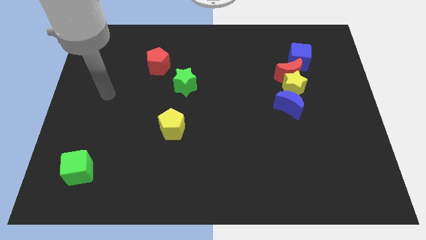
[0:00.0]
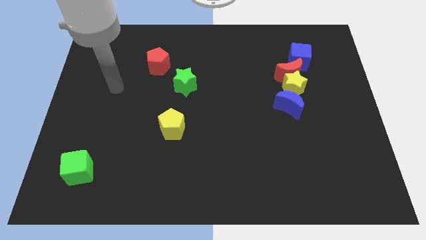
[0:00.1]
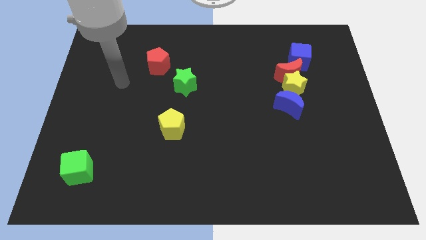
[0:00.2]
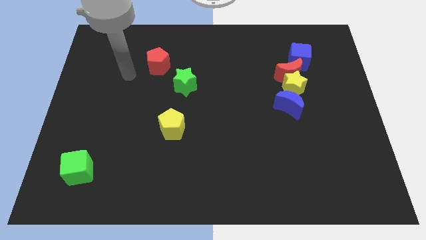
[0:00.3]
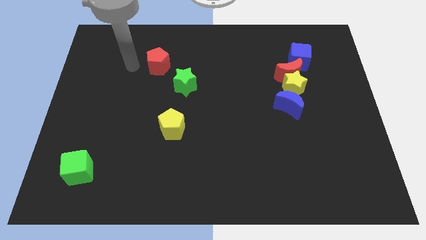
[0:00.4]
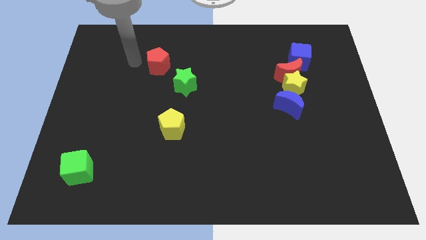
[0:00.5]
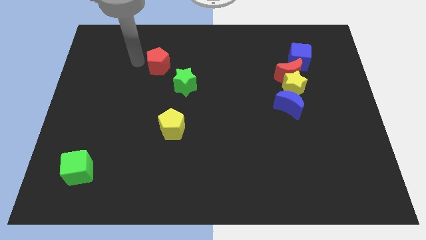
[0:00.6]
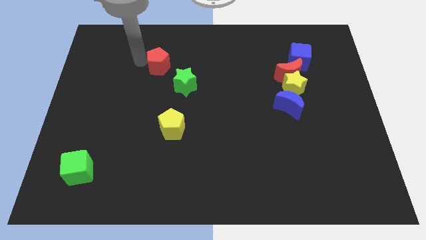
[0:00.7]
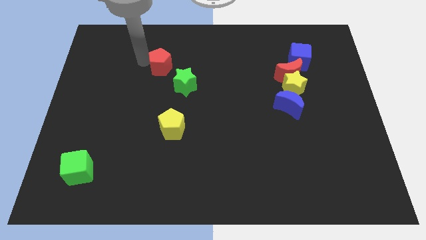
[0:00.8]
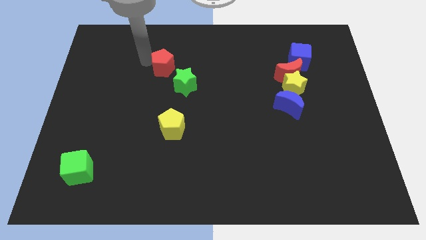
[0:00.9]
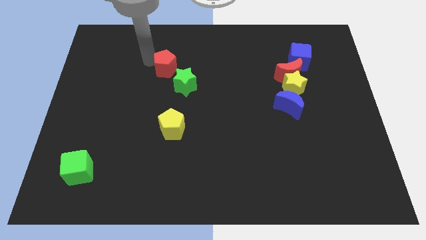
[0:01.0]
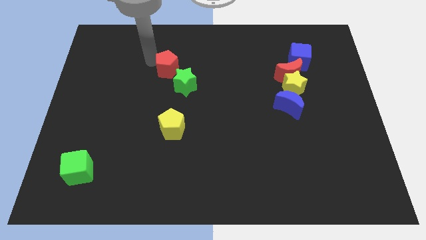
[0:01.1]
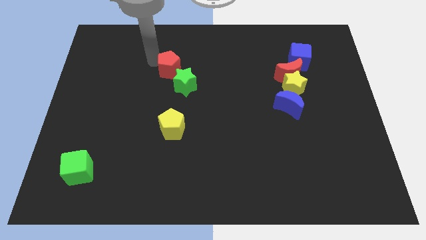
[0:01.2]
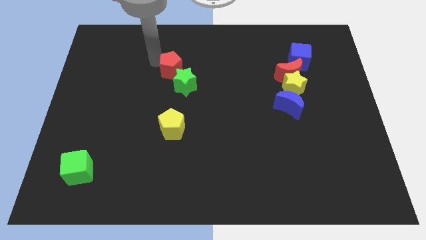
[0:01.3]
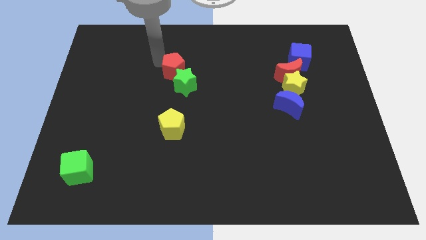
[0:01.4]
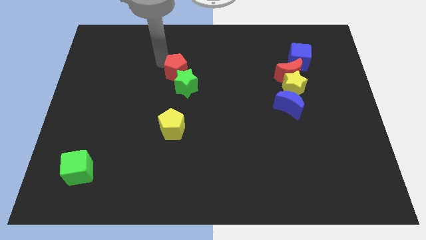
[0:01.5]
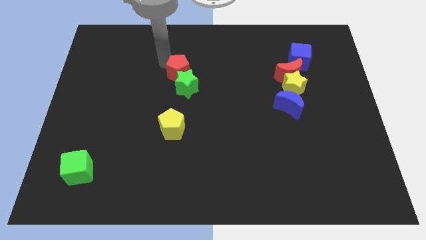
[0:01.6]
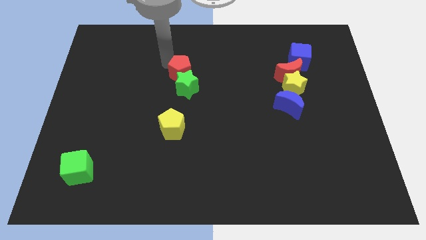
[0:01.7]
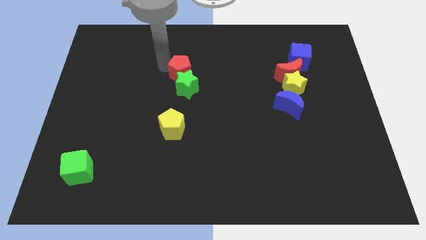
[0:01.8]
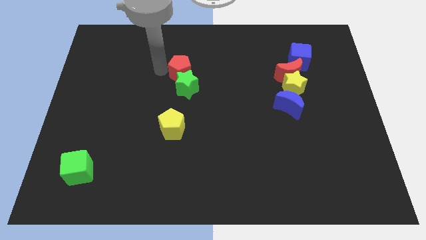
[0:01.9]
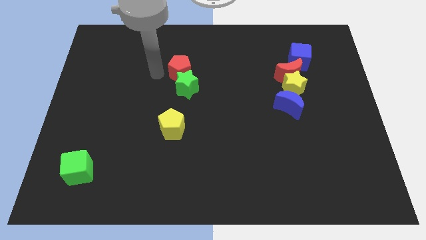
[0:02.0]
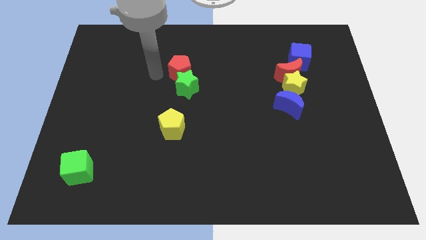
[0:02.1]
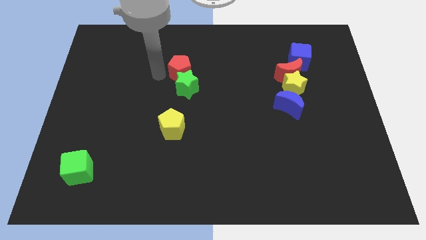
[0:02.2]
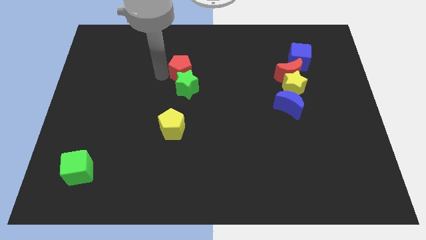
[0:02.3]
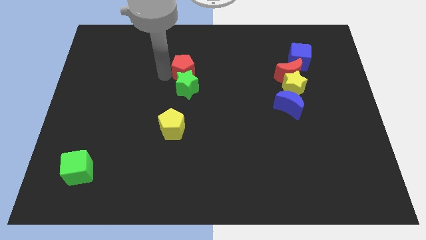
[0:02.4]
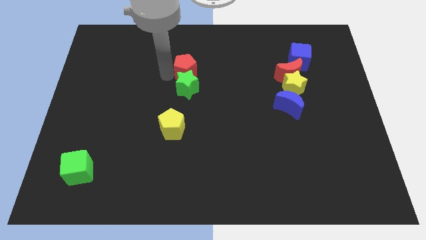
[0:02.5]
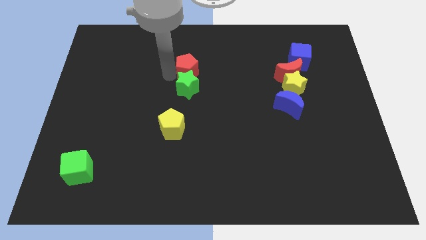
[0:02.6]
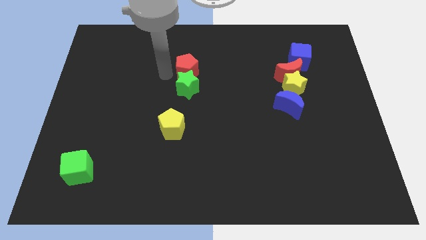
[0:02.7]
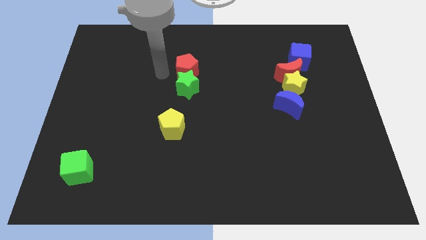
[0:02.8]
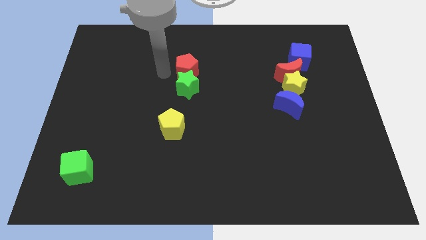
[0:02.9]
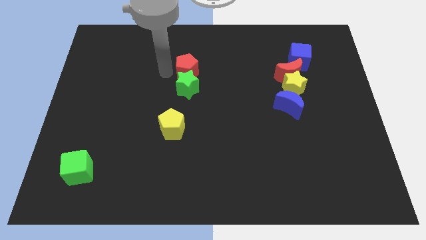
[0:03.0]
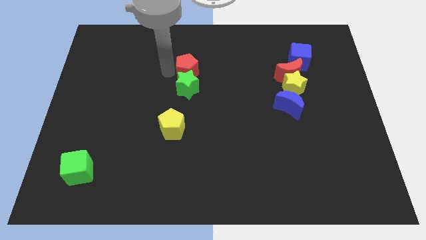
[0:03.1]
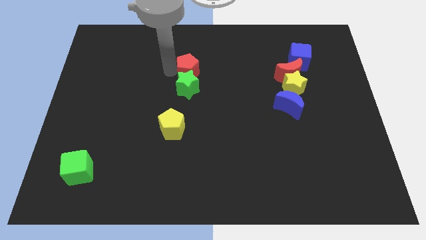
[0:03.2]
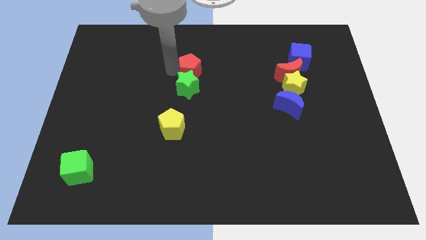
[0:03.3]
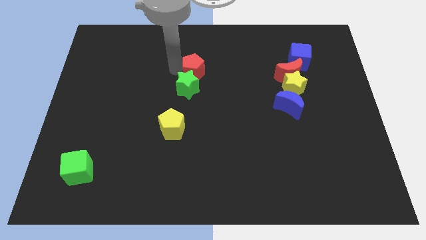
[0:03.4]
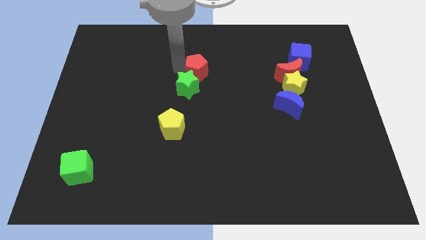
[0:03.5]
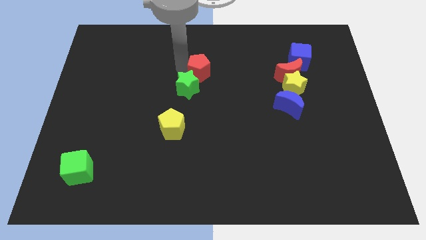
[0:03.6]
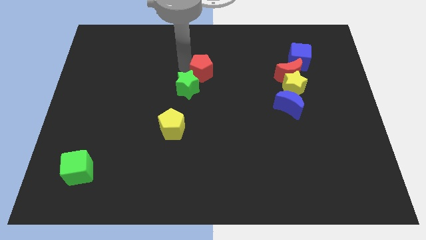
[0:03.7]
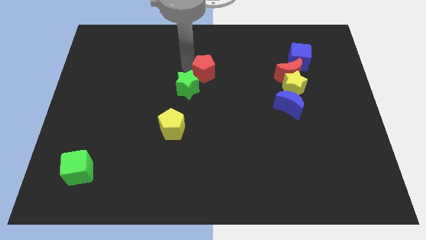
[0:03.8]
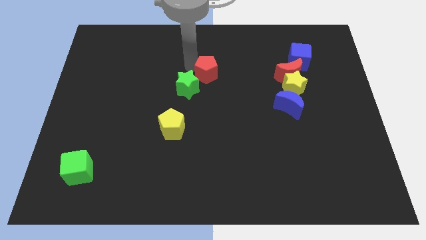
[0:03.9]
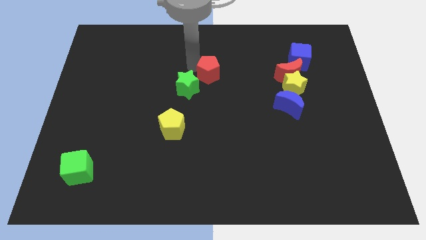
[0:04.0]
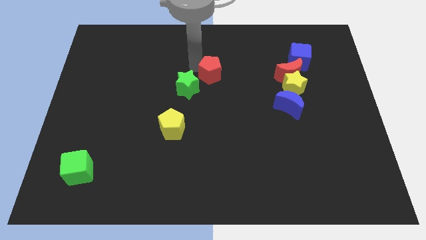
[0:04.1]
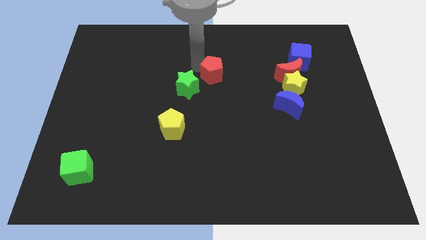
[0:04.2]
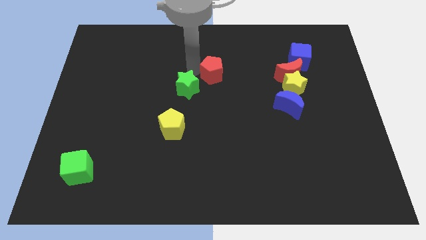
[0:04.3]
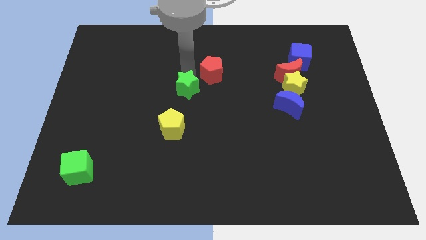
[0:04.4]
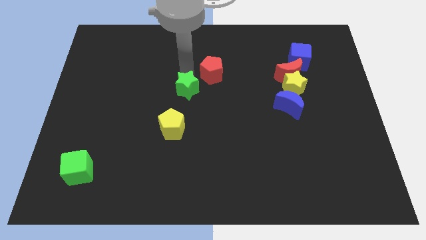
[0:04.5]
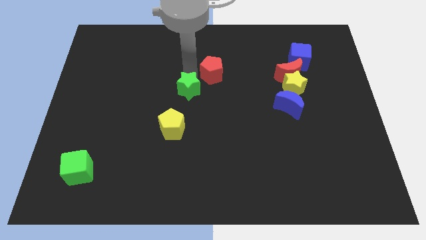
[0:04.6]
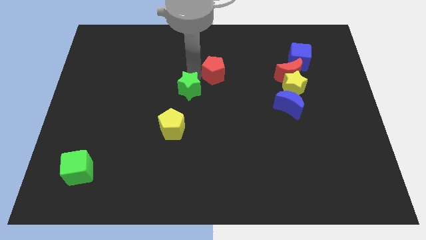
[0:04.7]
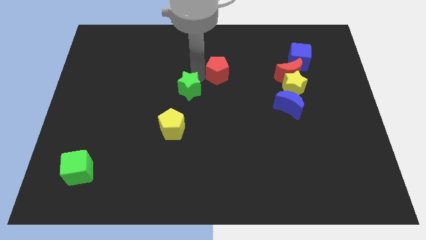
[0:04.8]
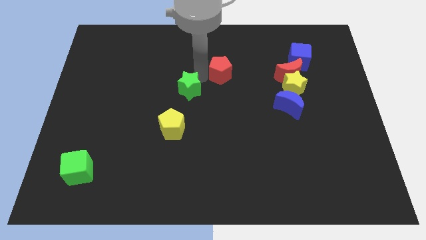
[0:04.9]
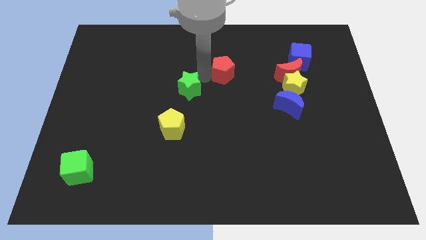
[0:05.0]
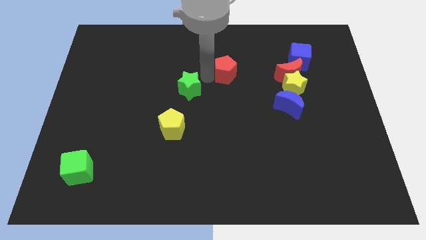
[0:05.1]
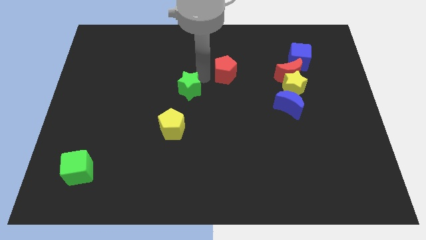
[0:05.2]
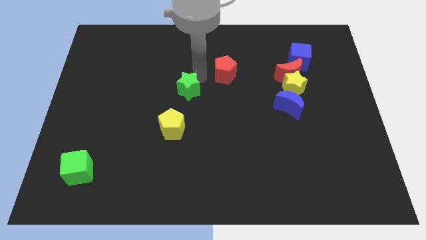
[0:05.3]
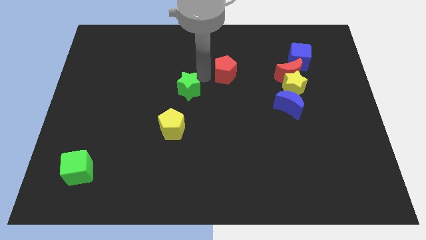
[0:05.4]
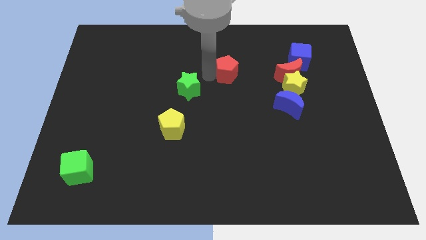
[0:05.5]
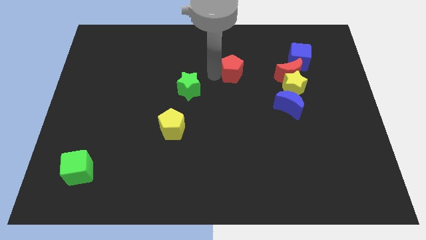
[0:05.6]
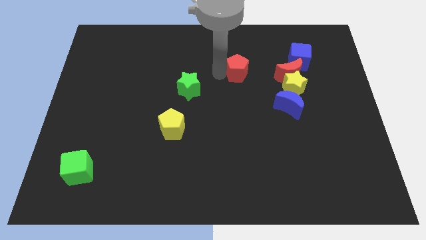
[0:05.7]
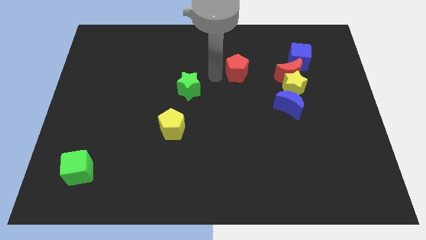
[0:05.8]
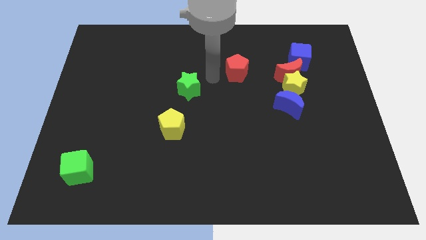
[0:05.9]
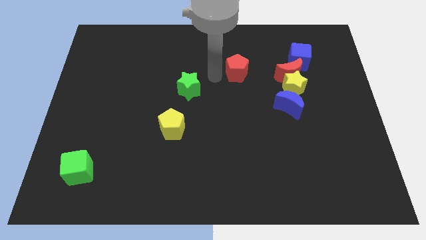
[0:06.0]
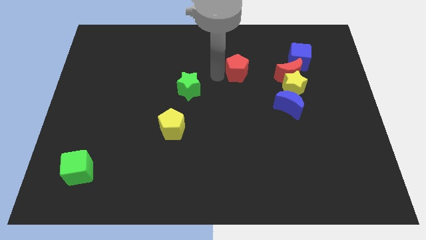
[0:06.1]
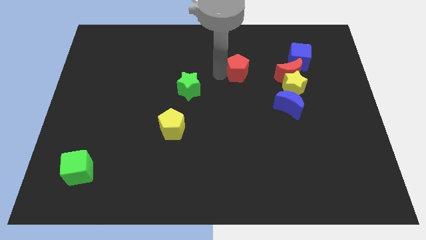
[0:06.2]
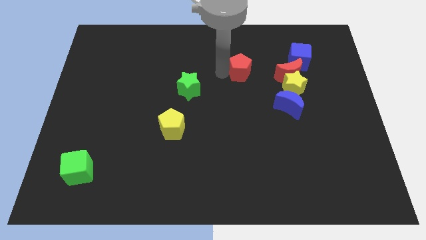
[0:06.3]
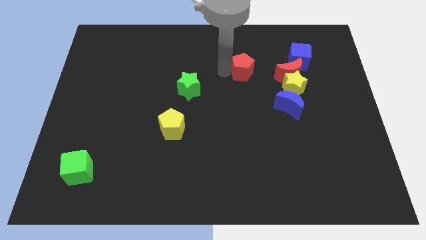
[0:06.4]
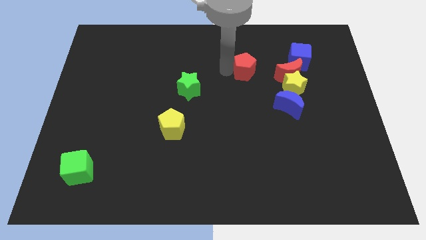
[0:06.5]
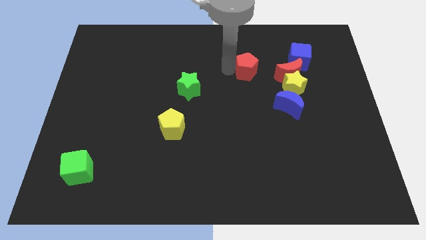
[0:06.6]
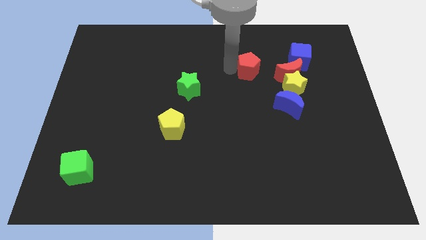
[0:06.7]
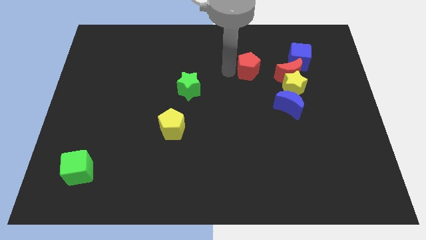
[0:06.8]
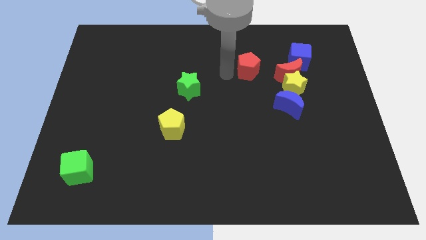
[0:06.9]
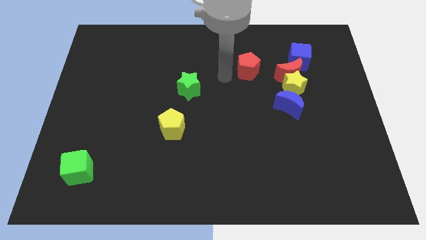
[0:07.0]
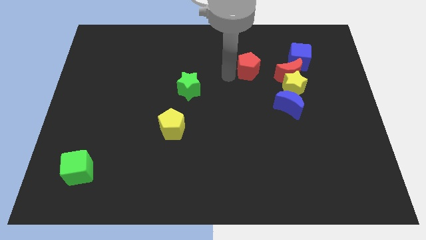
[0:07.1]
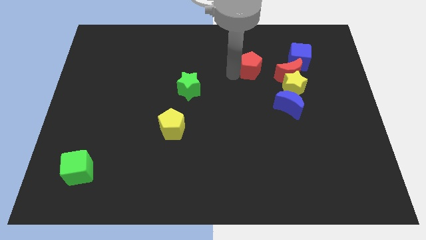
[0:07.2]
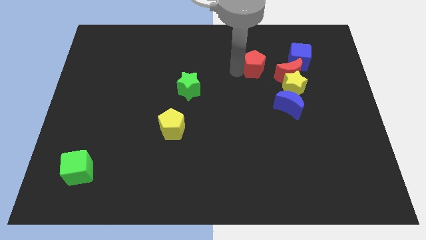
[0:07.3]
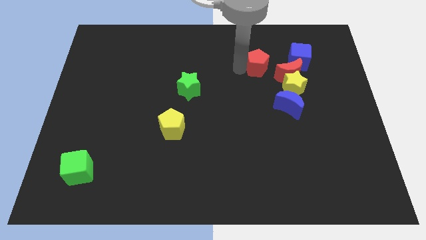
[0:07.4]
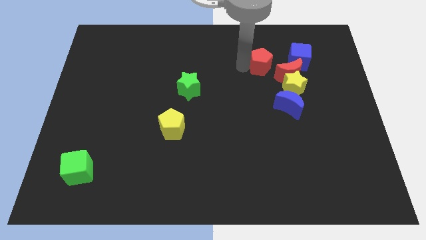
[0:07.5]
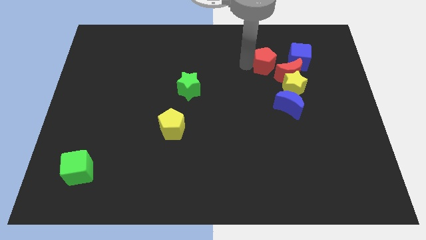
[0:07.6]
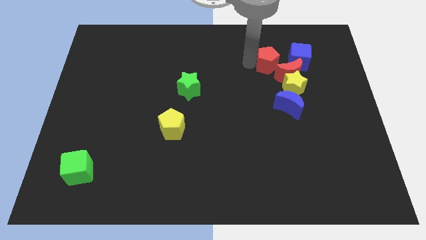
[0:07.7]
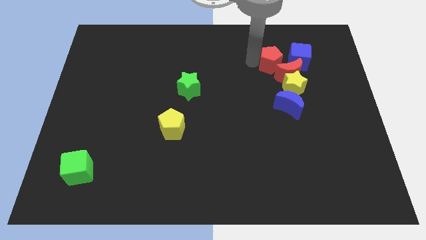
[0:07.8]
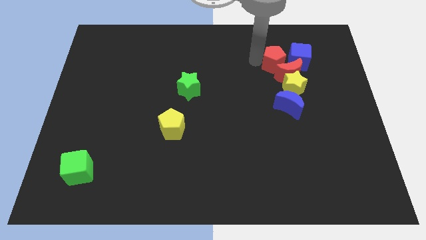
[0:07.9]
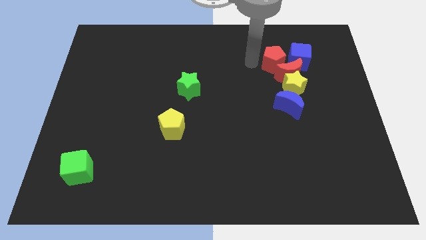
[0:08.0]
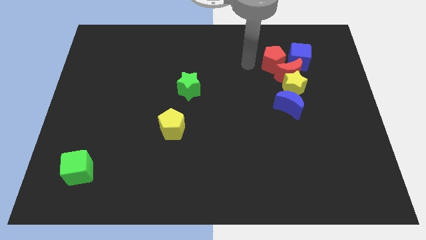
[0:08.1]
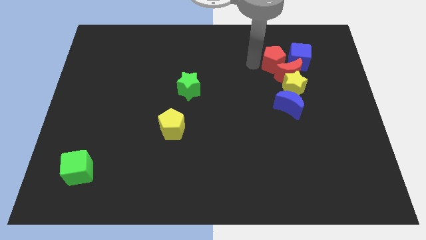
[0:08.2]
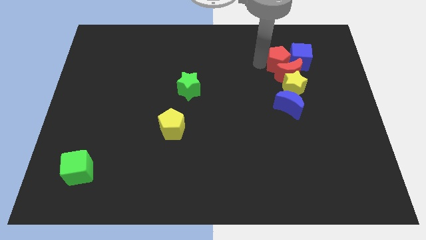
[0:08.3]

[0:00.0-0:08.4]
move the red pentagon next to the blue cube
